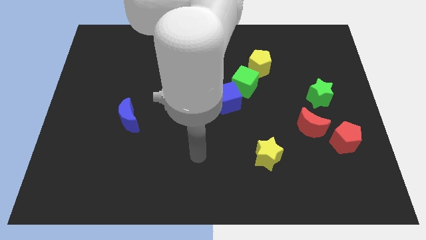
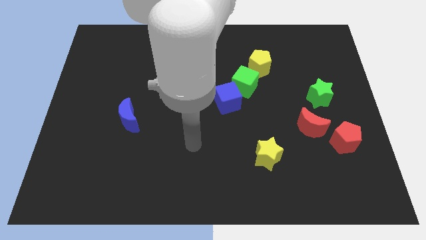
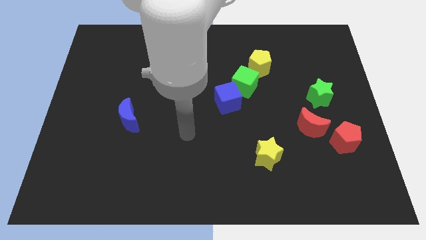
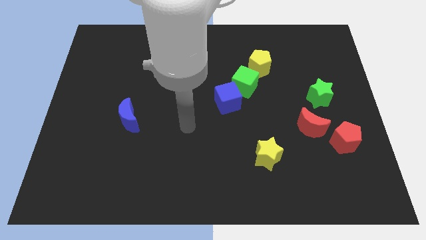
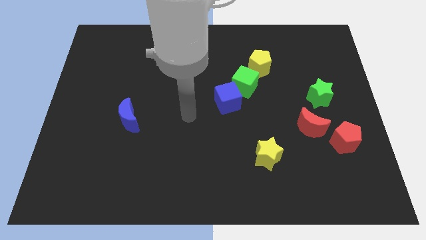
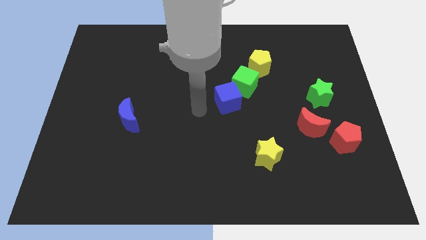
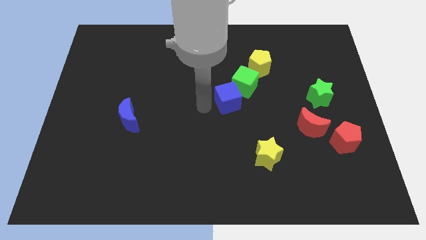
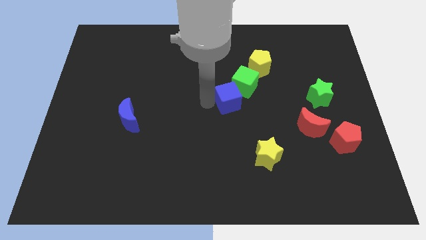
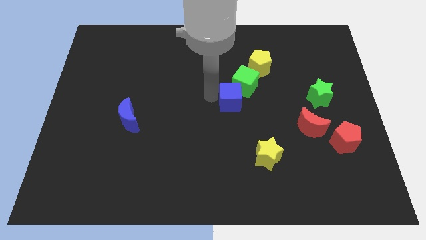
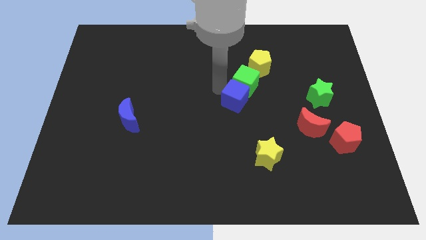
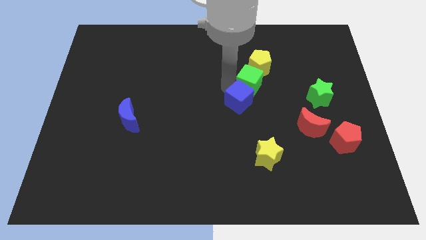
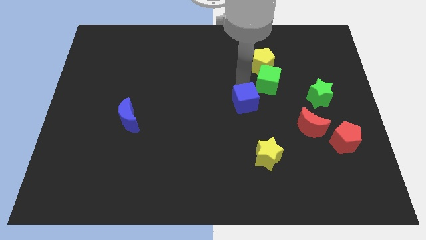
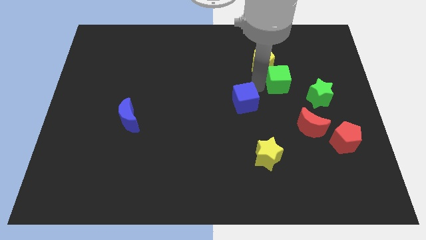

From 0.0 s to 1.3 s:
pull the blue cube apart from the green cube

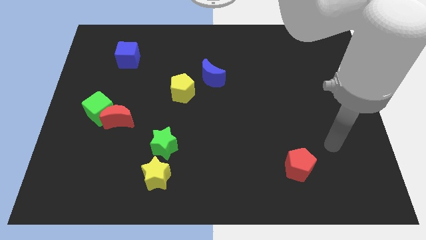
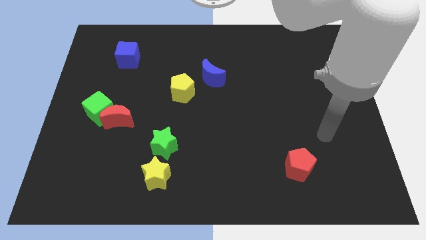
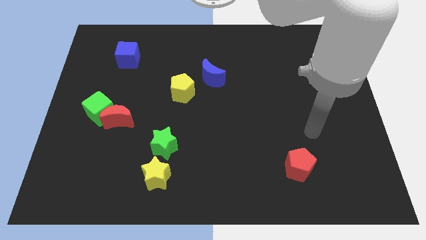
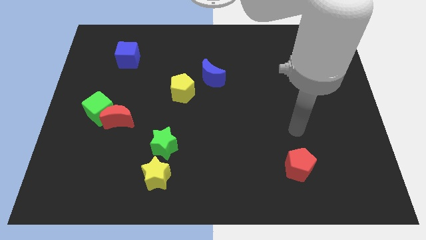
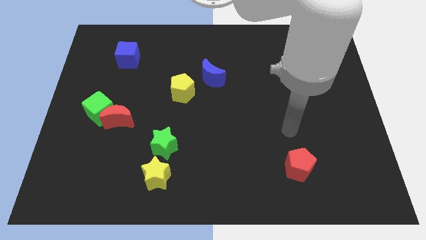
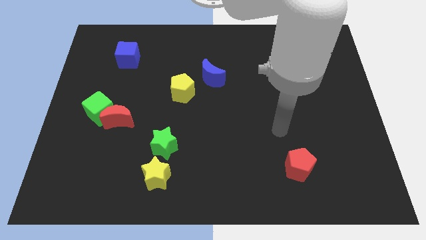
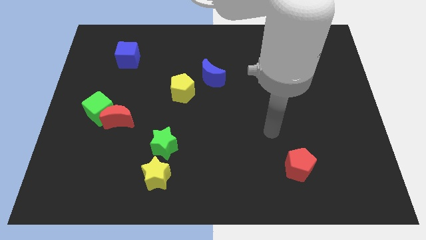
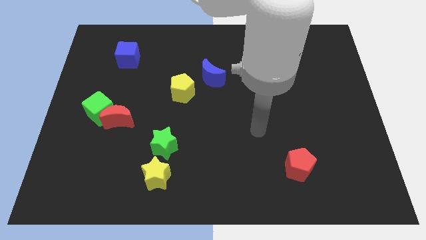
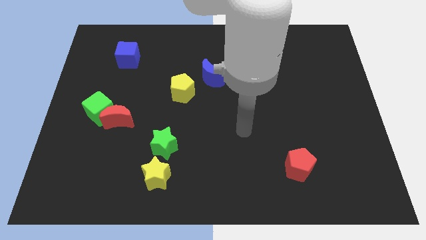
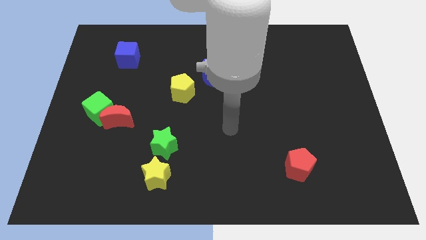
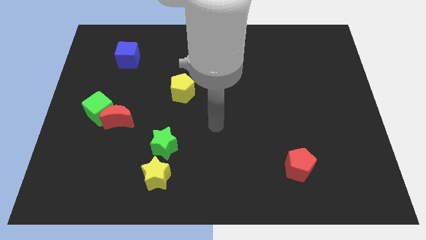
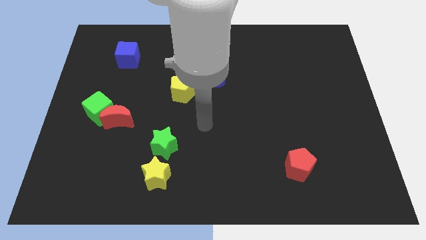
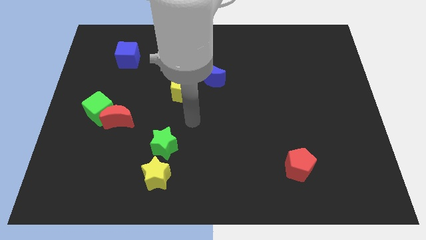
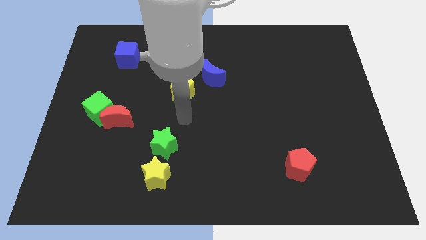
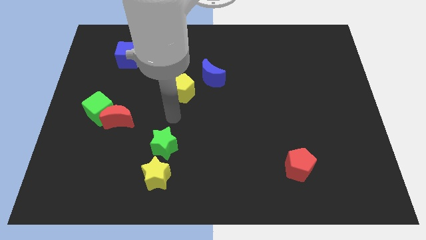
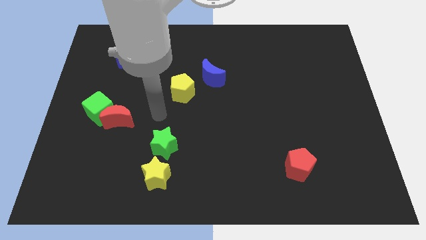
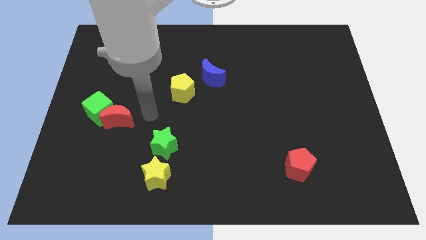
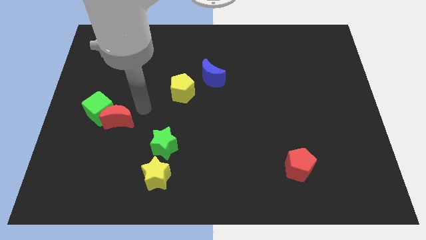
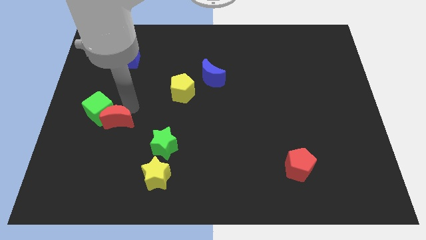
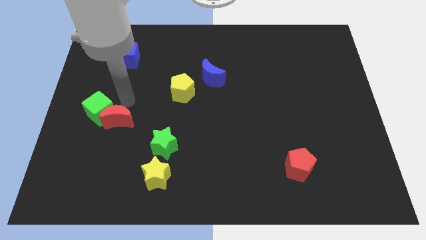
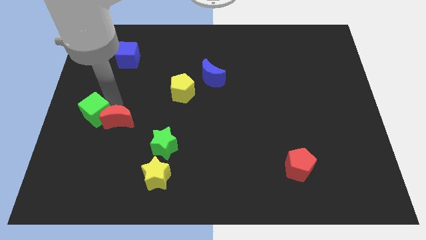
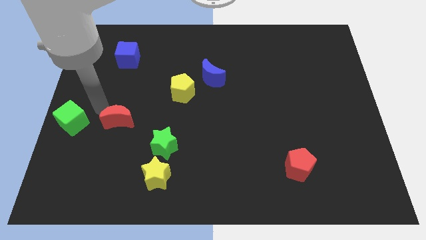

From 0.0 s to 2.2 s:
pull the red moon apart from the green cube

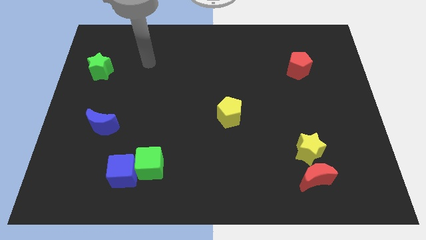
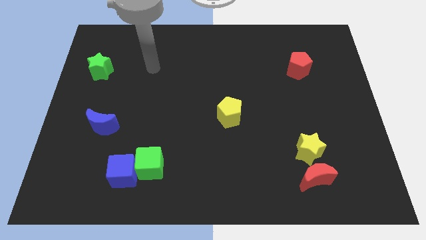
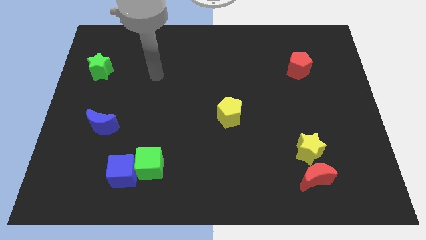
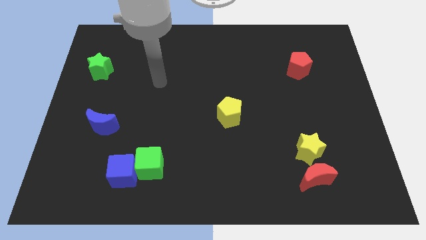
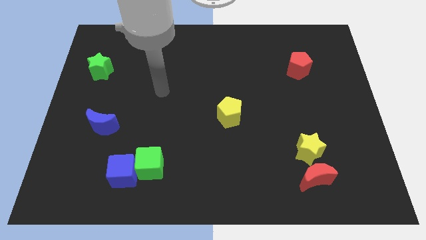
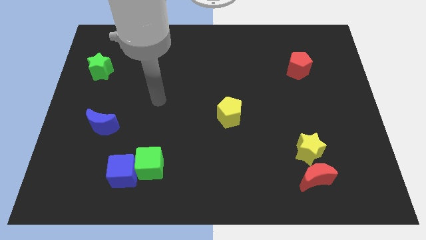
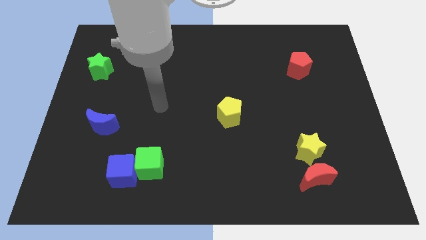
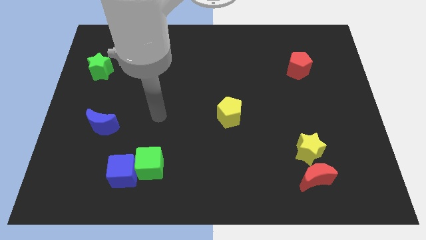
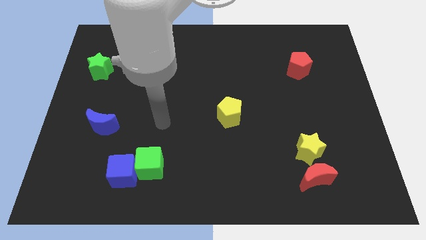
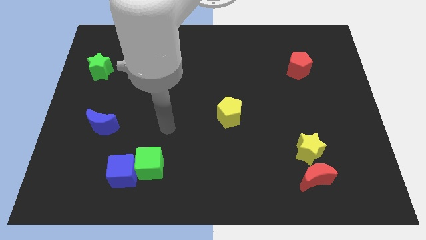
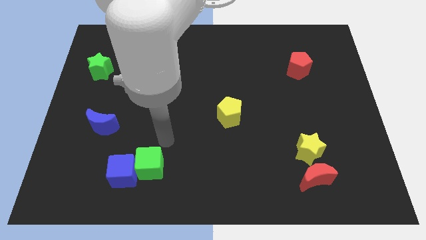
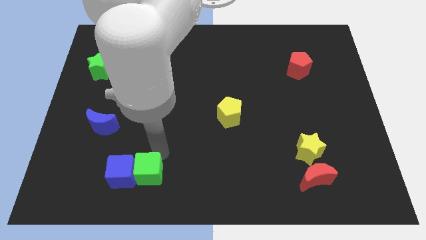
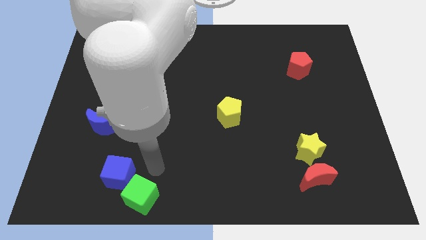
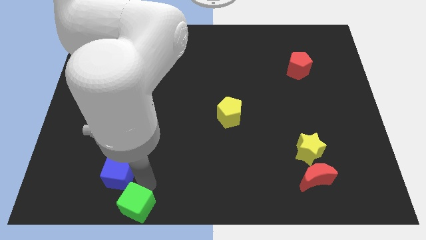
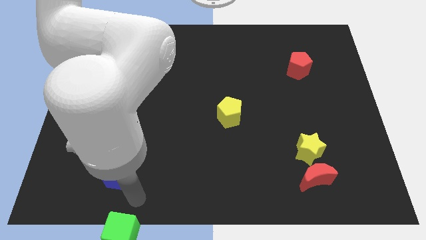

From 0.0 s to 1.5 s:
move the blue cube away from the green cube

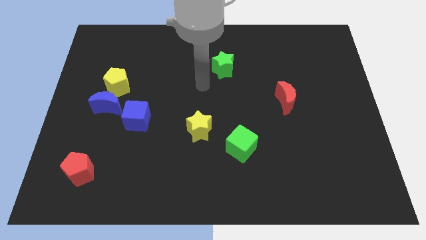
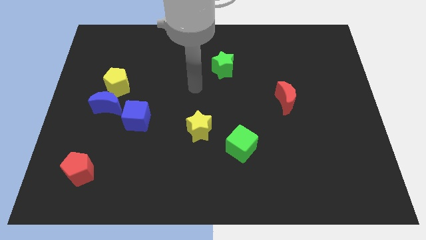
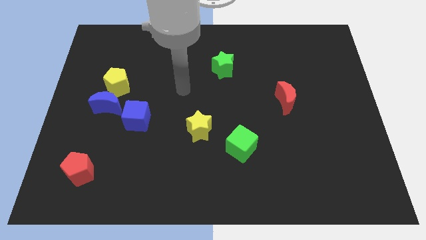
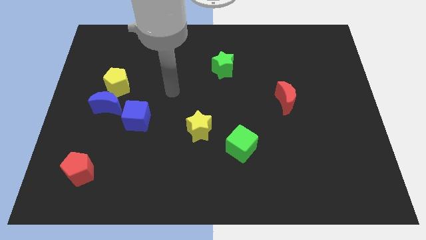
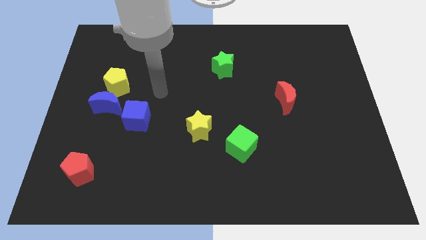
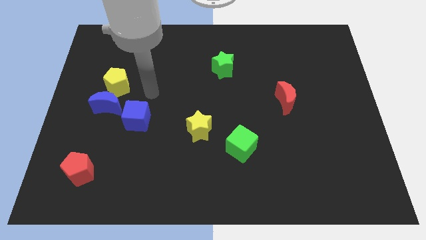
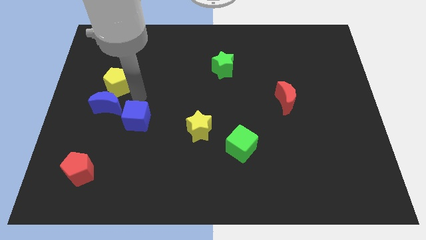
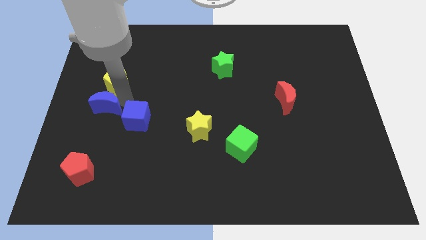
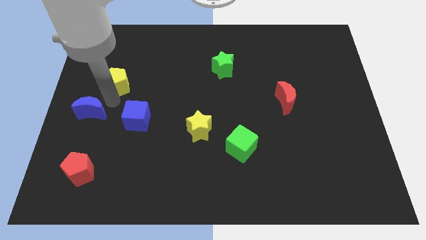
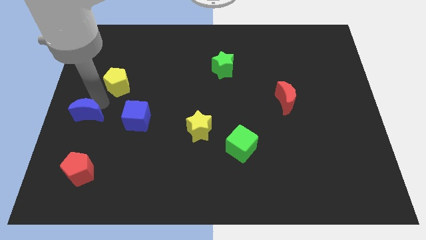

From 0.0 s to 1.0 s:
separate the yellow pentagon from the blue moon

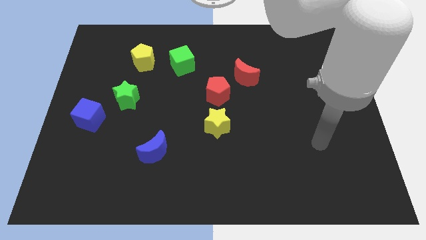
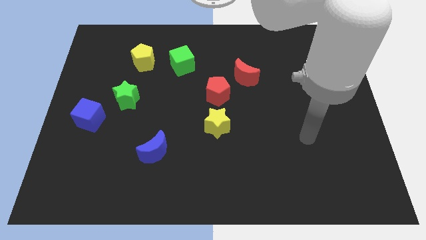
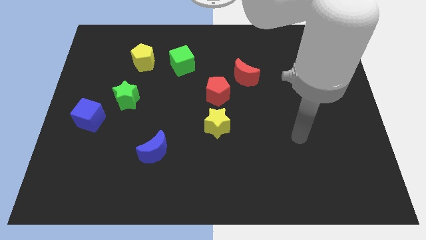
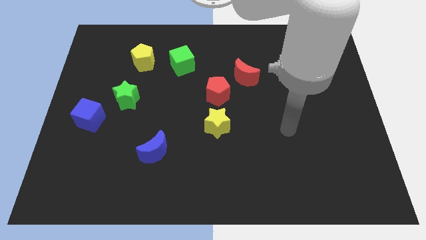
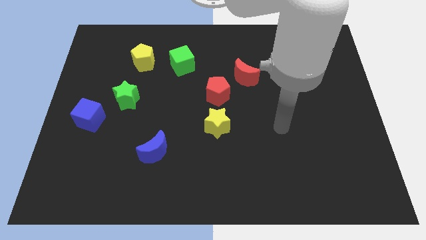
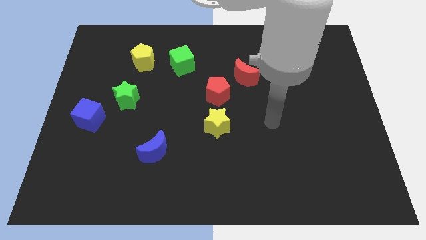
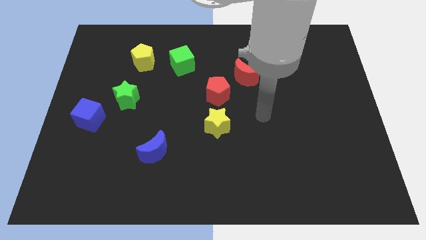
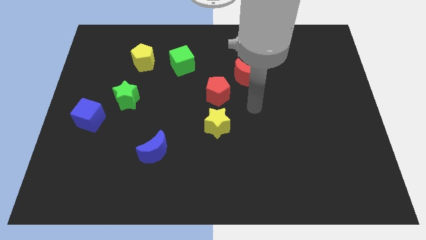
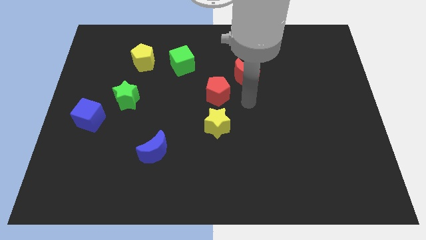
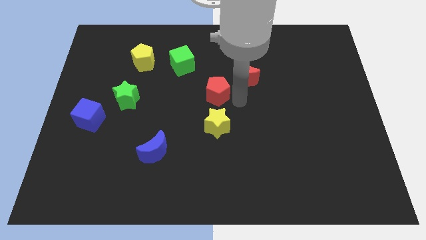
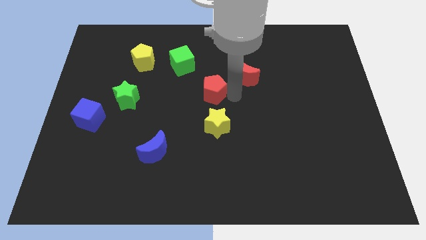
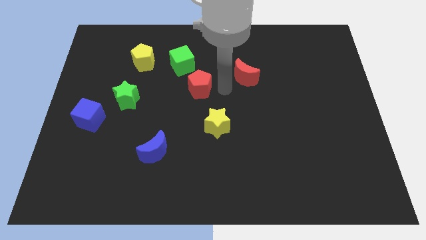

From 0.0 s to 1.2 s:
separate the red moon from the red pentagon

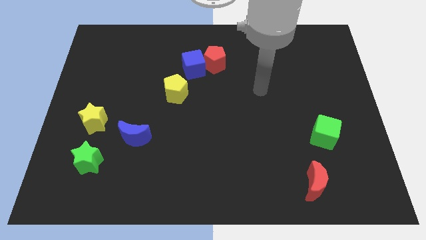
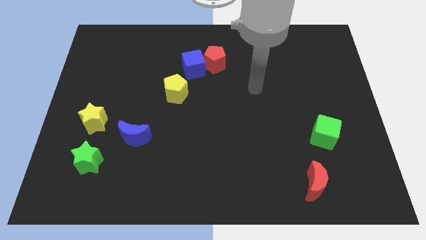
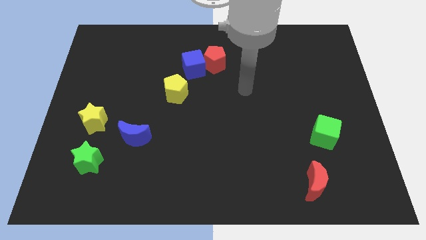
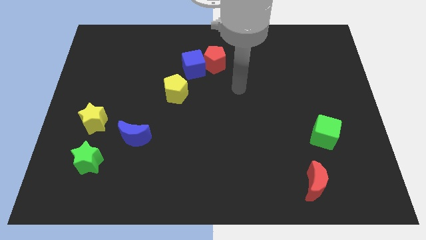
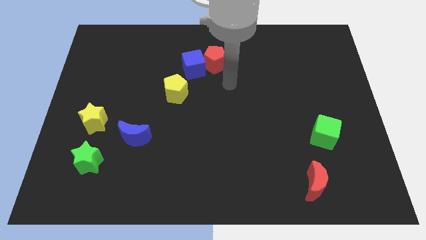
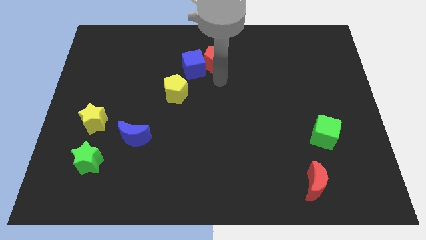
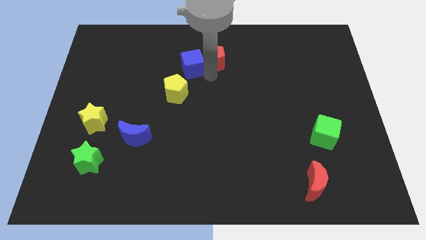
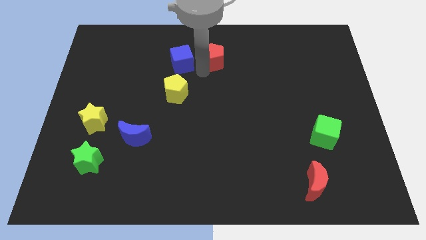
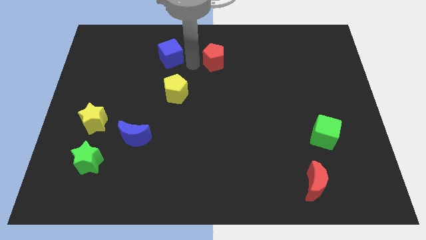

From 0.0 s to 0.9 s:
pull the red pentagon apart from the blue cube

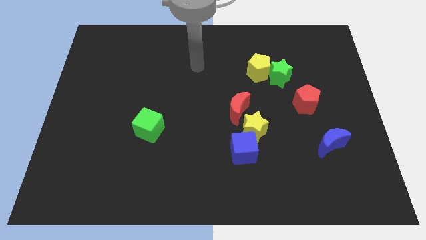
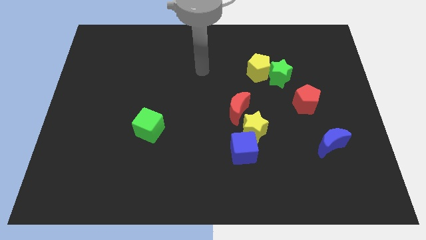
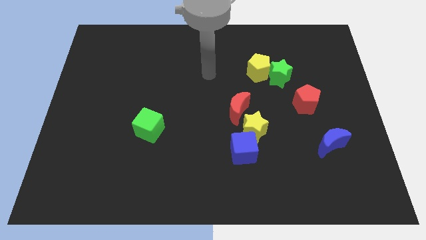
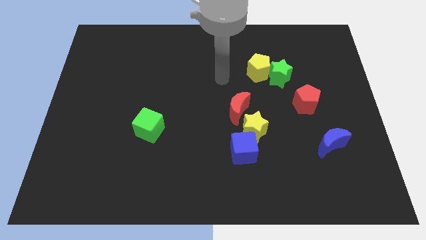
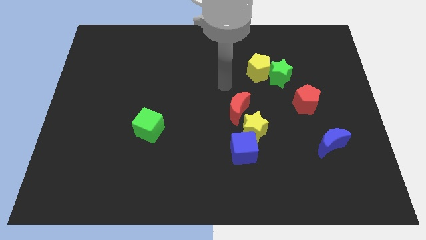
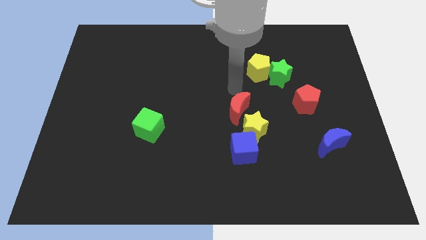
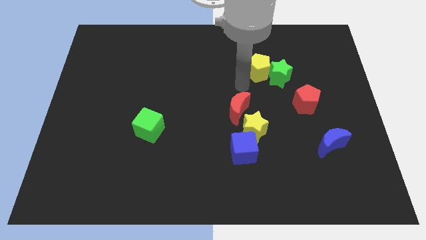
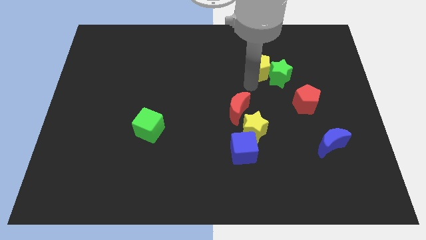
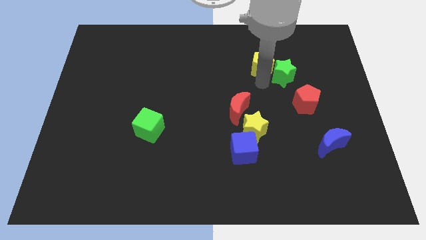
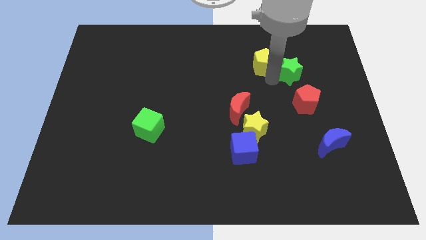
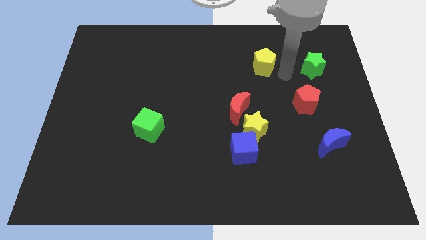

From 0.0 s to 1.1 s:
pull the yellow pentagon apart from the green star

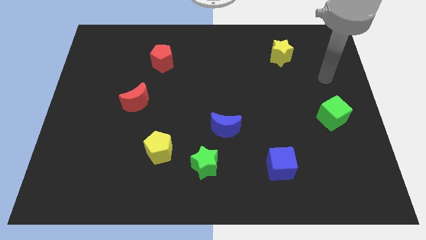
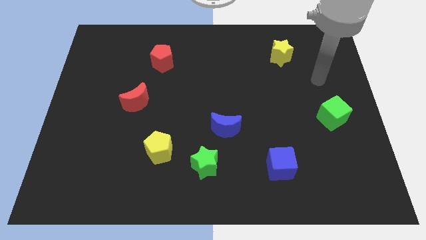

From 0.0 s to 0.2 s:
move the blue moon away from the green star

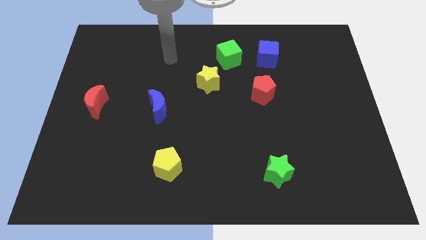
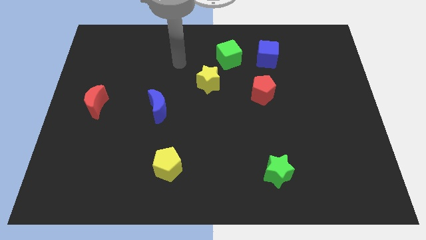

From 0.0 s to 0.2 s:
separate the blue cube from the green cube
